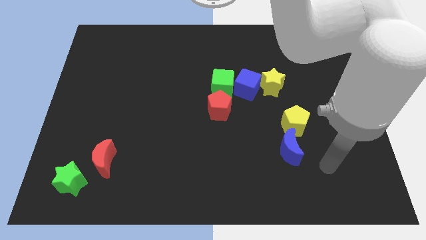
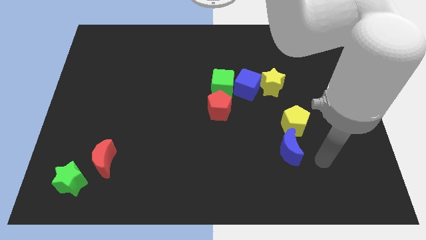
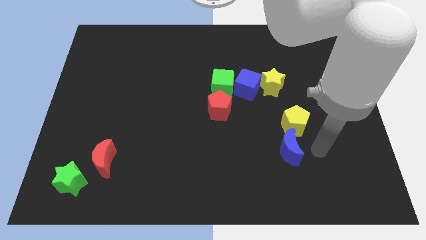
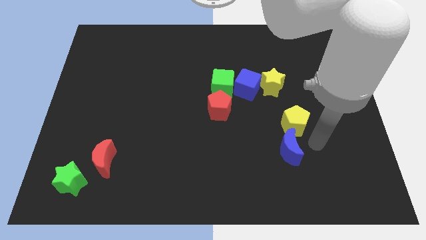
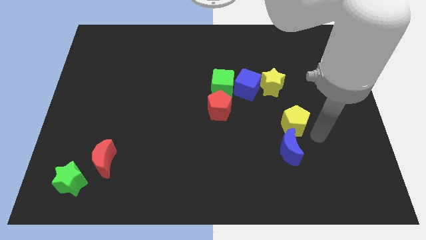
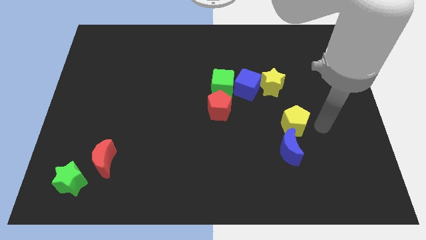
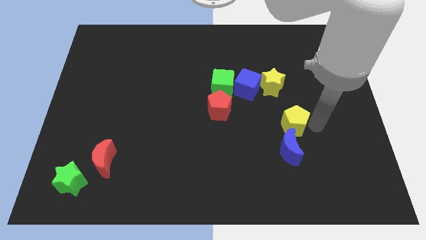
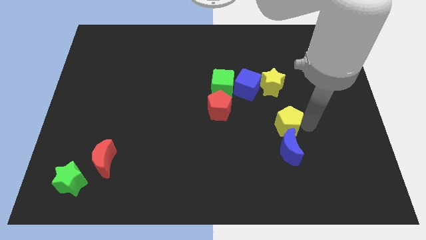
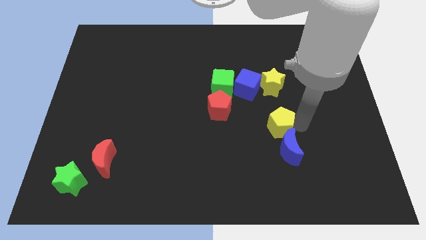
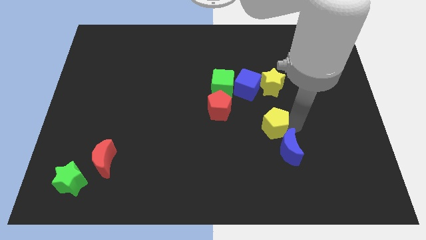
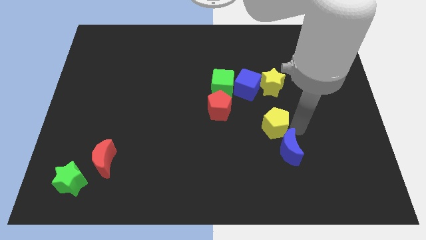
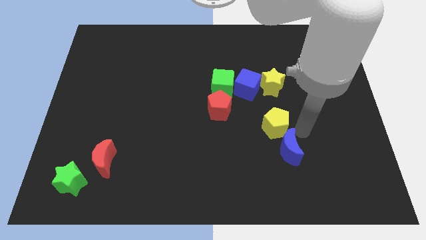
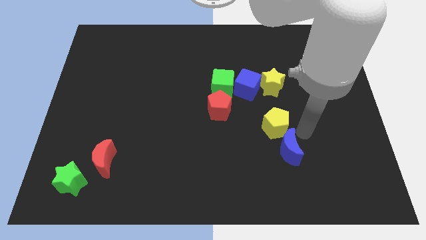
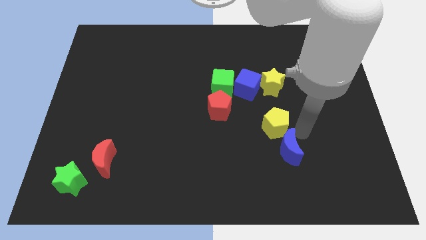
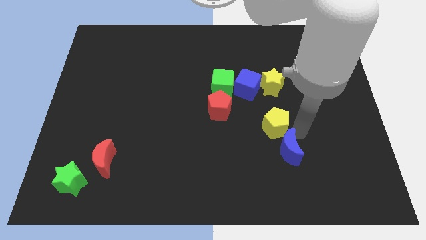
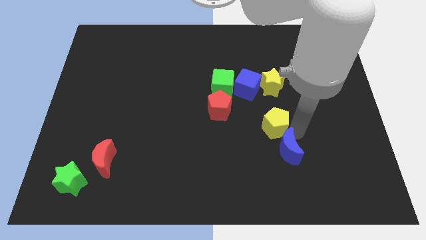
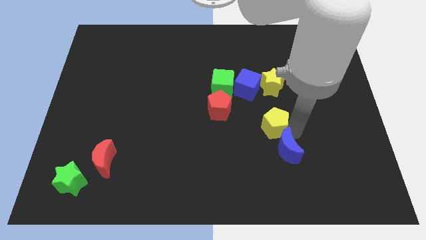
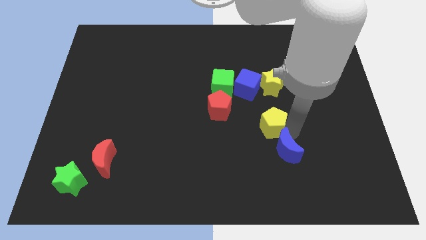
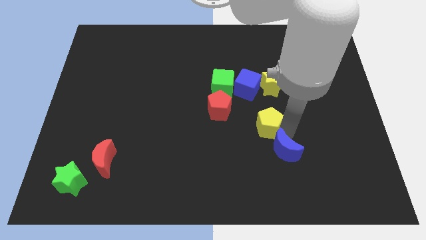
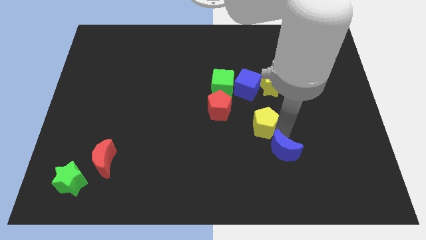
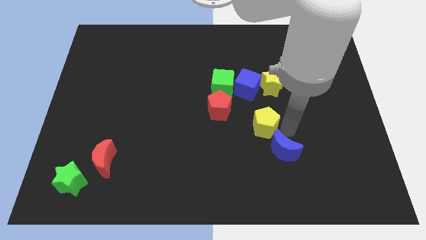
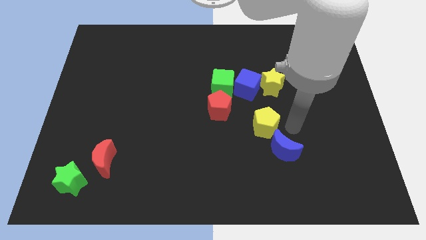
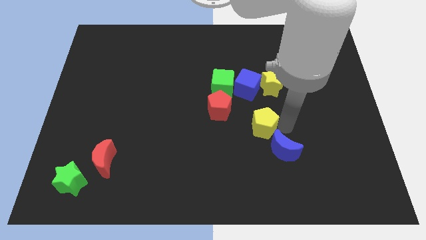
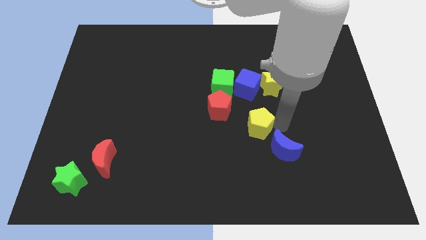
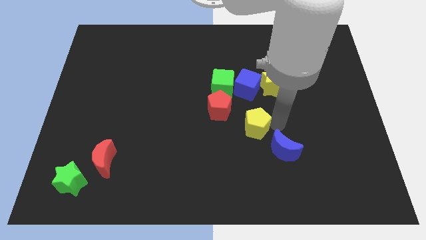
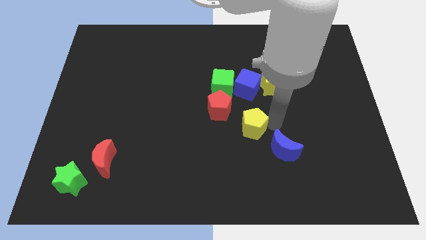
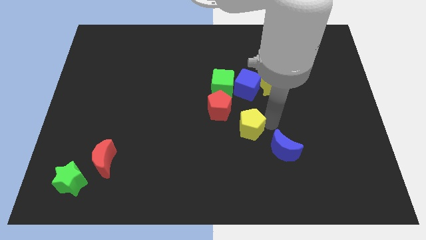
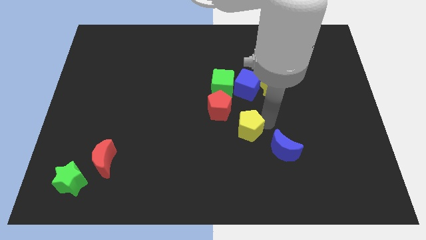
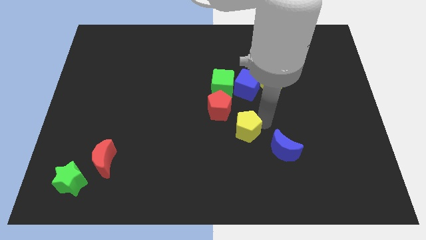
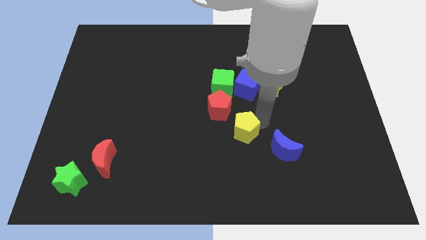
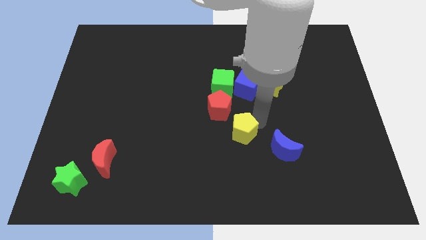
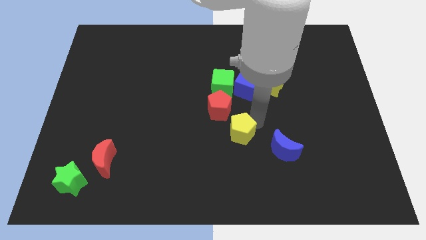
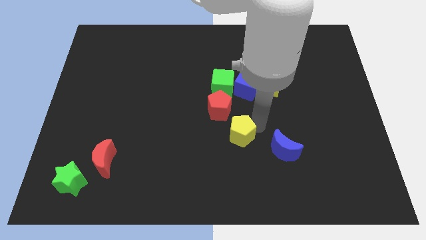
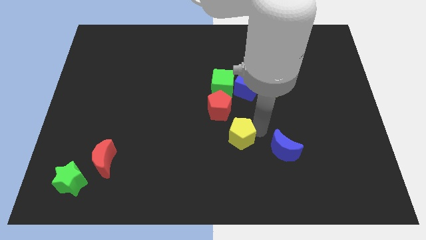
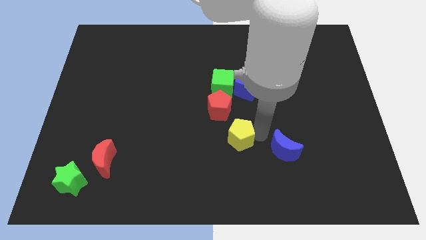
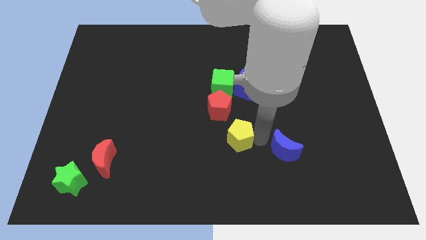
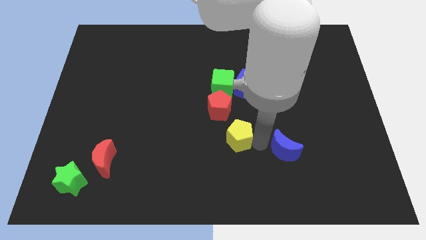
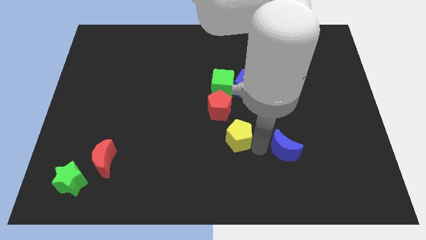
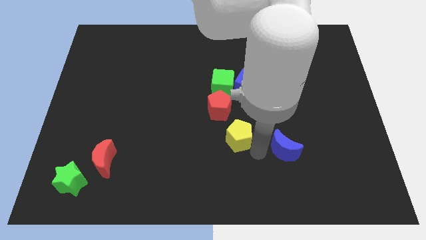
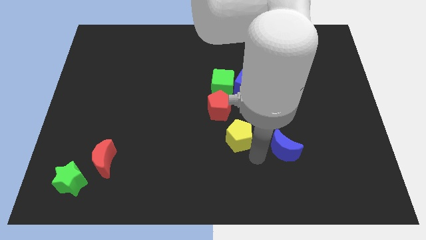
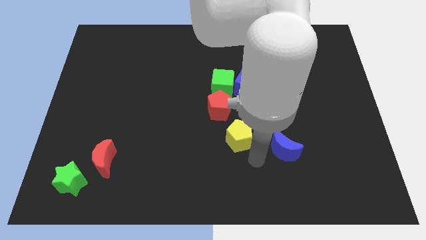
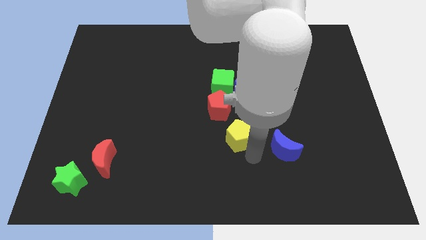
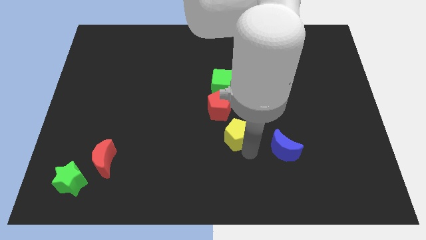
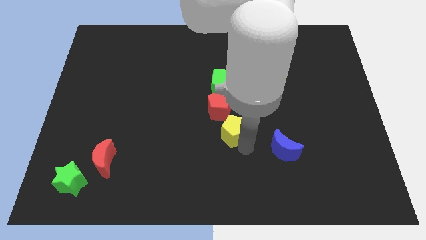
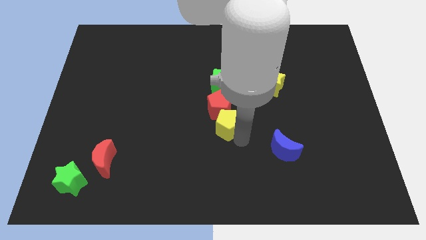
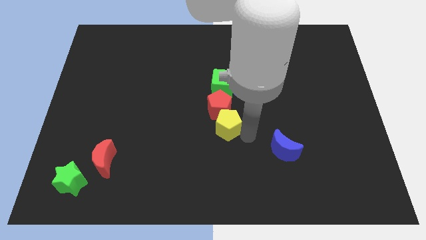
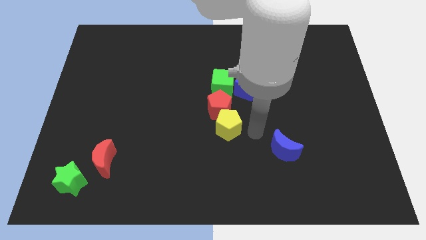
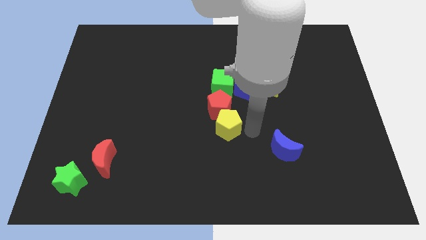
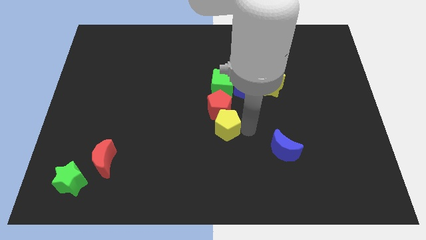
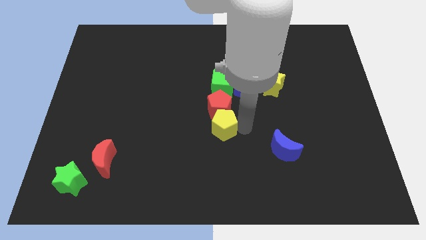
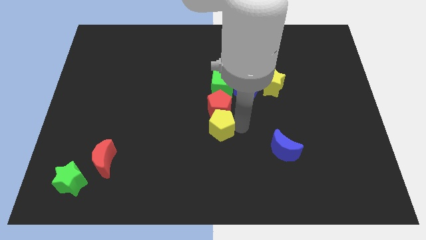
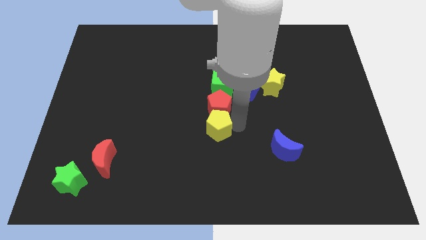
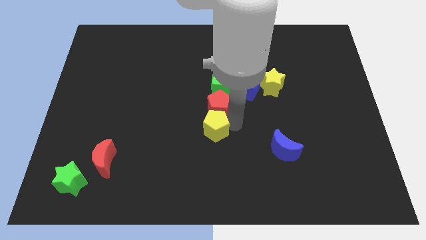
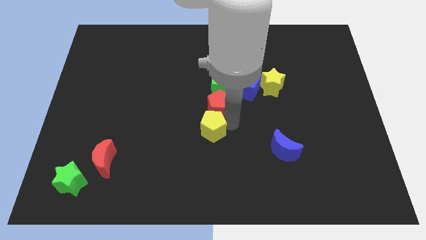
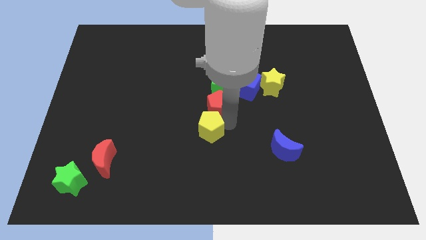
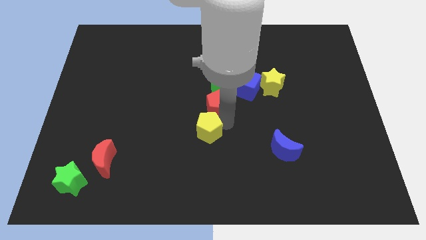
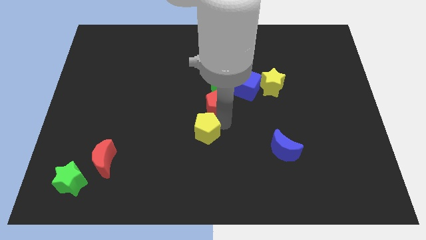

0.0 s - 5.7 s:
push the yellow pentagon left

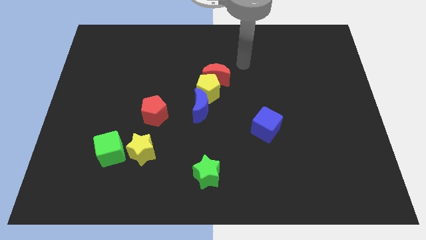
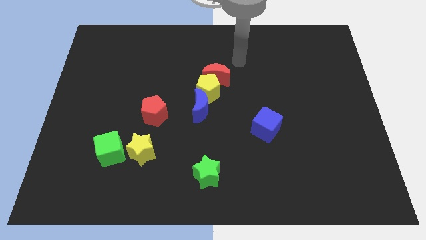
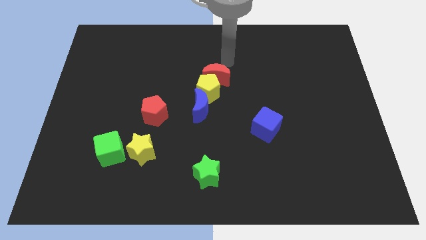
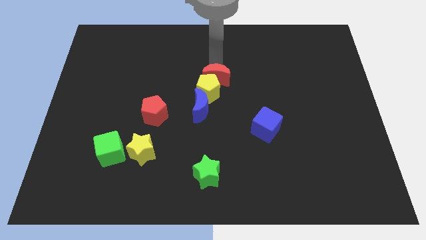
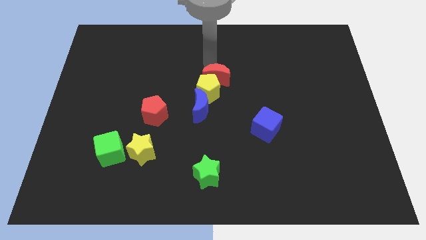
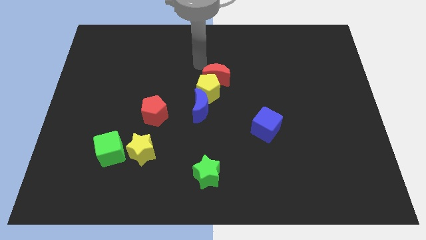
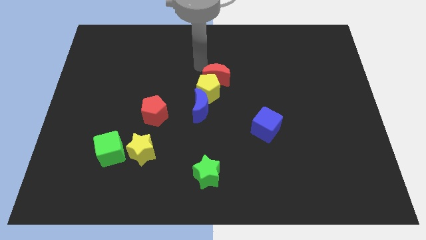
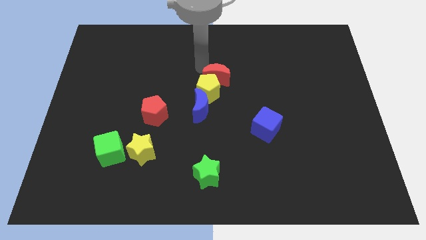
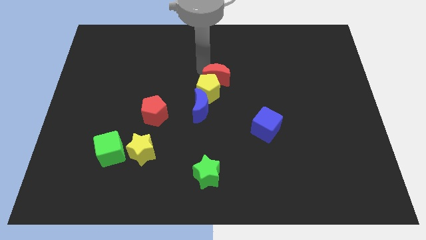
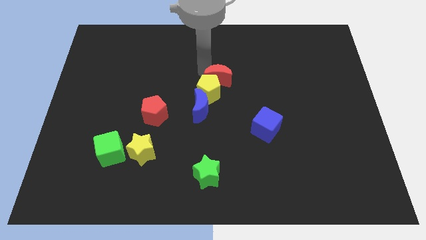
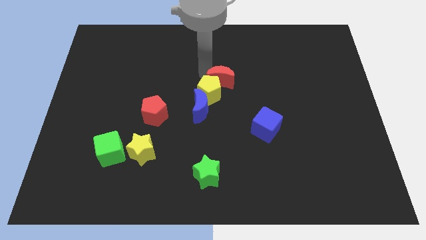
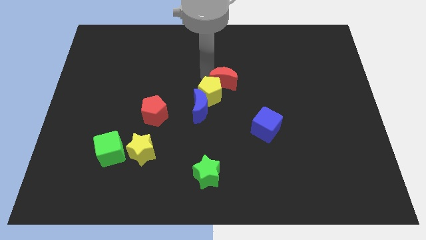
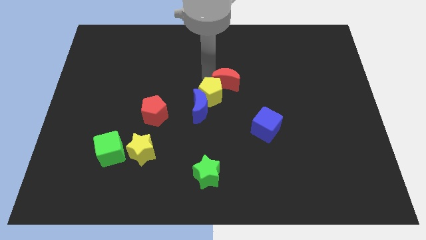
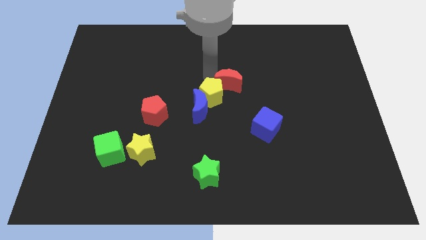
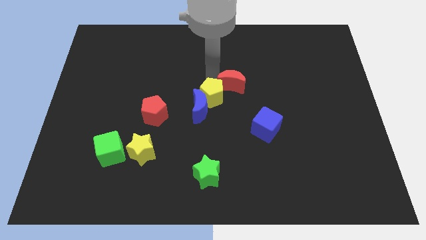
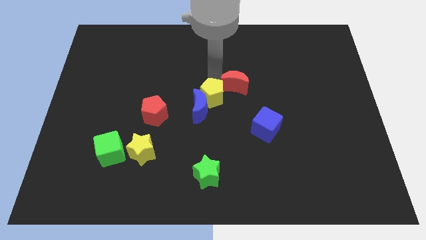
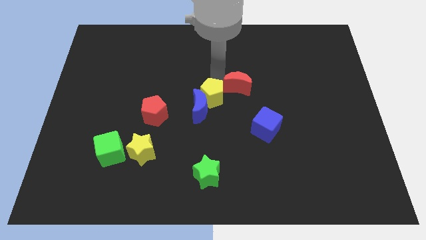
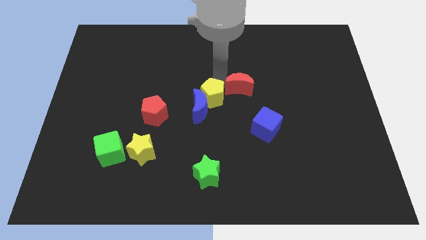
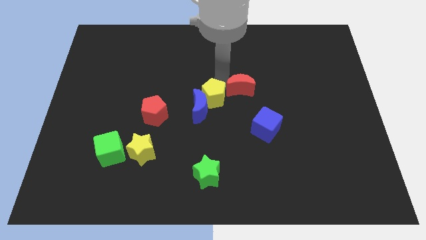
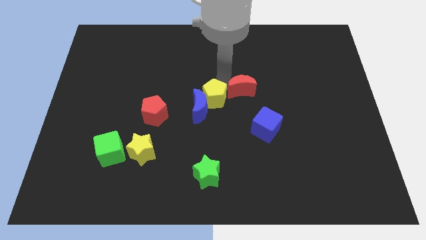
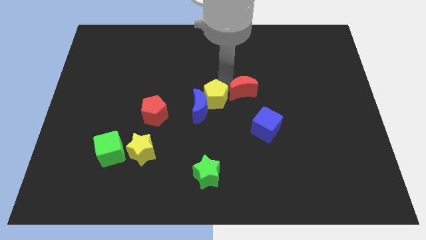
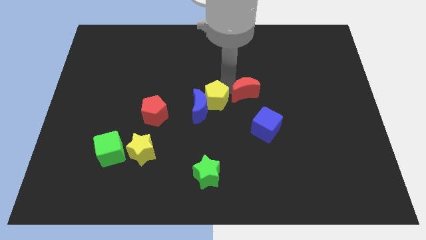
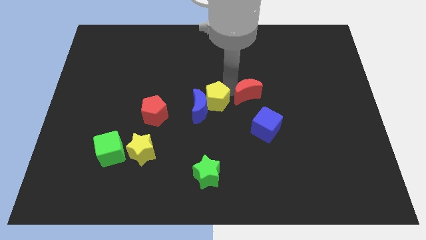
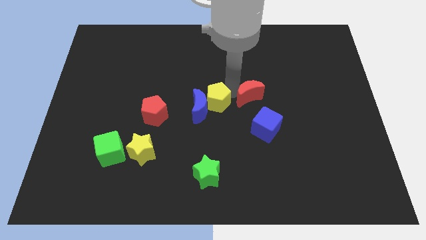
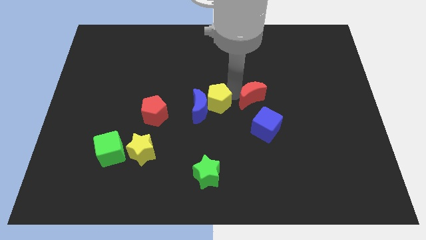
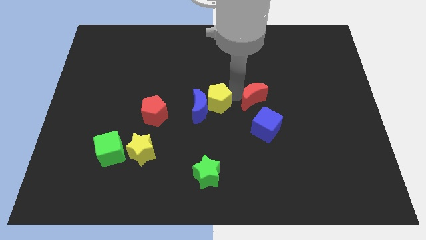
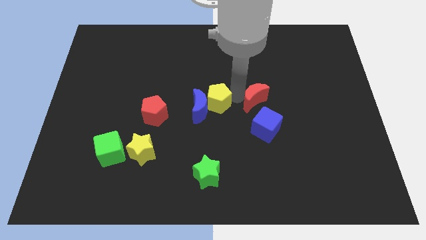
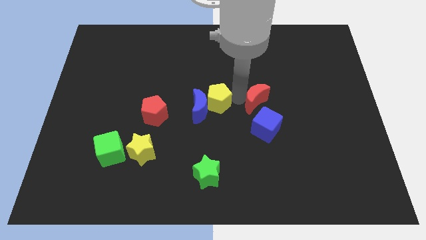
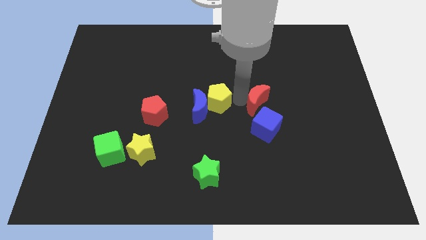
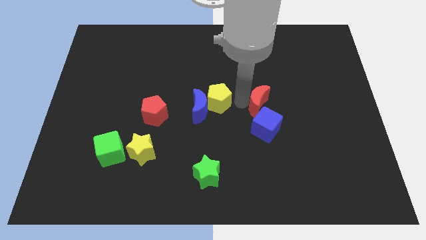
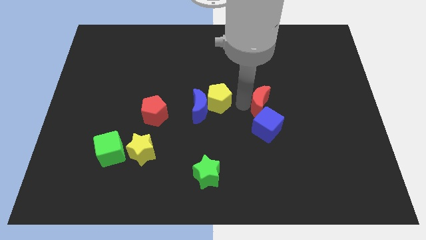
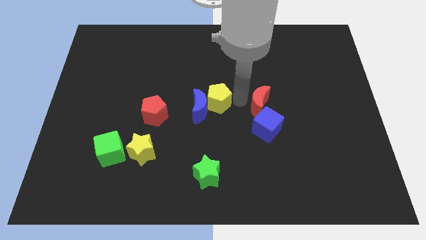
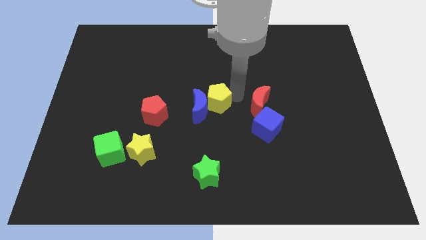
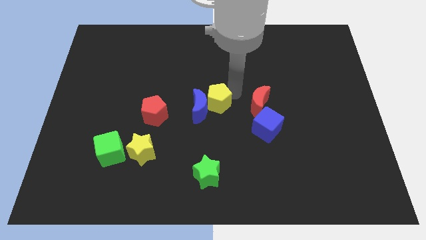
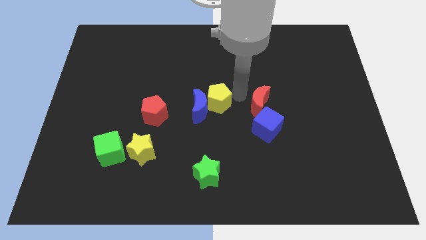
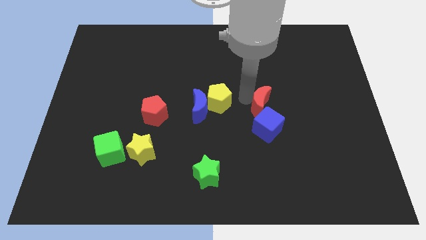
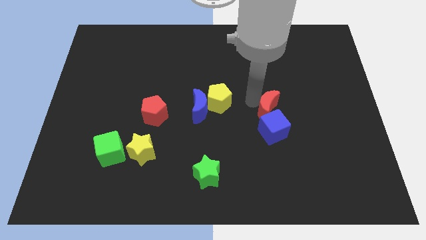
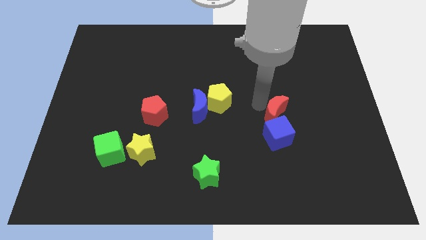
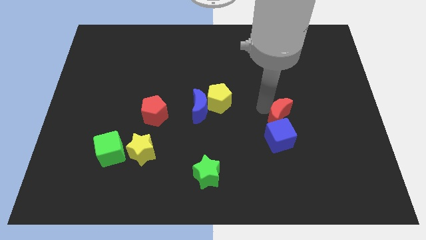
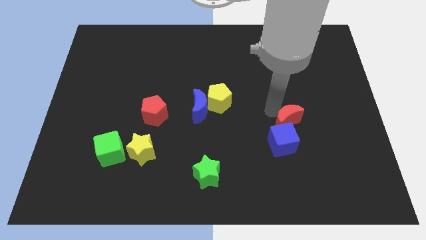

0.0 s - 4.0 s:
slide the red moon down and right
